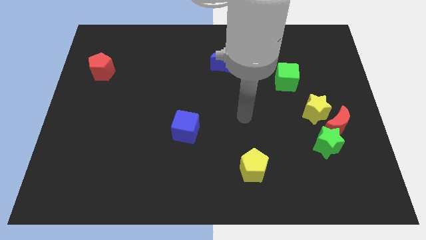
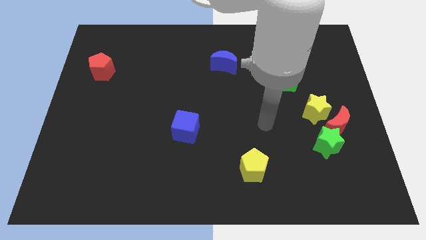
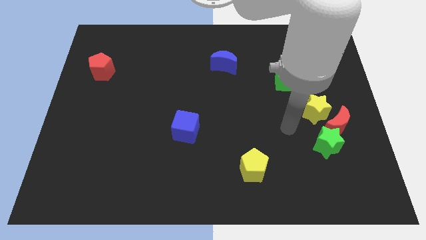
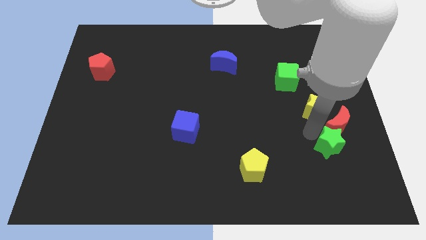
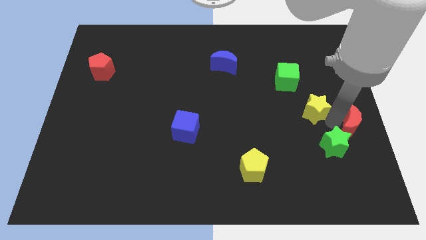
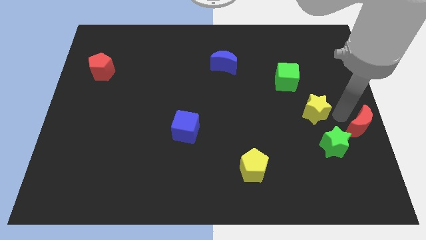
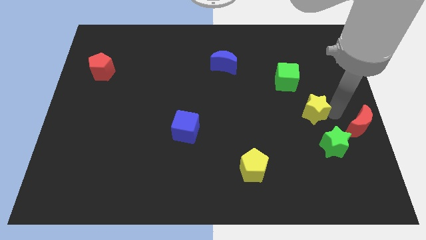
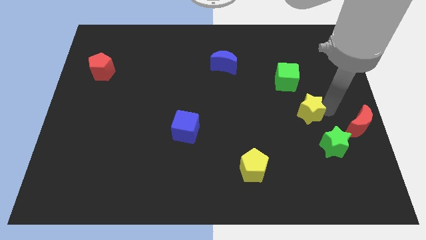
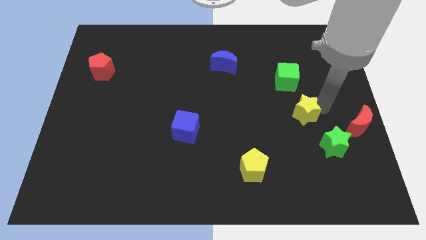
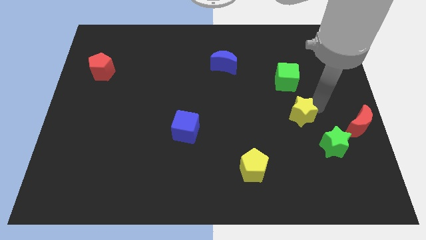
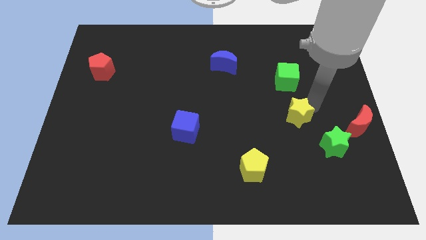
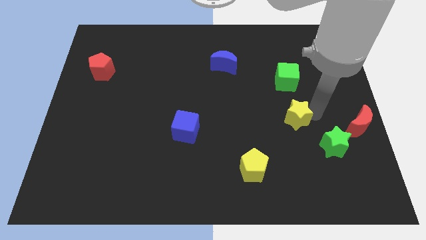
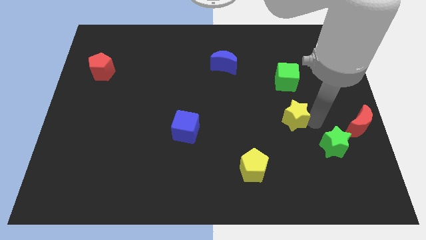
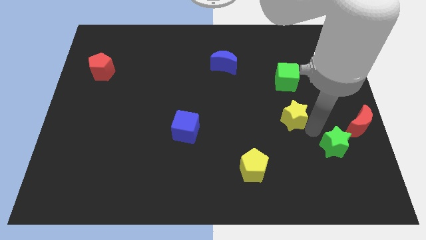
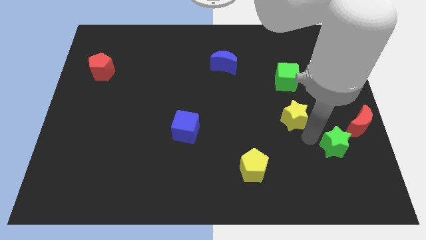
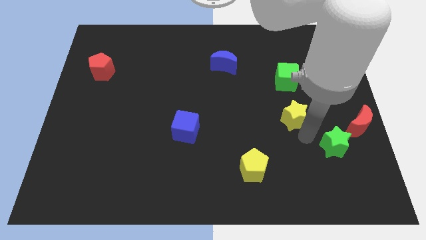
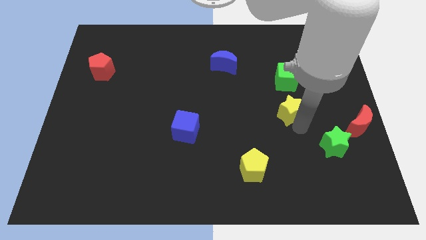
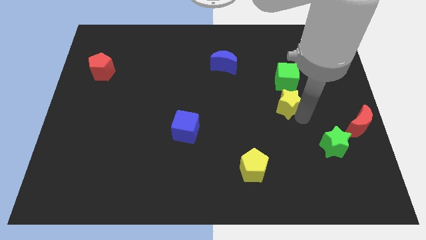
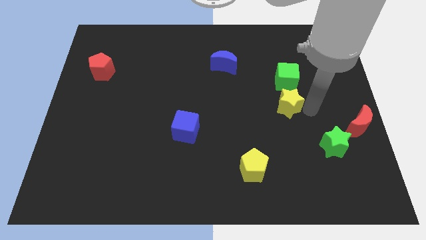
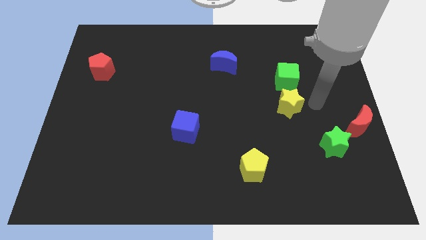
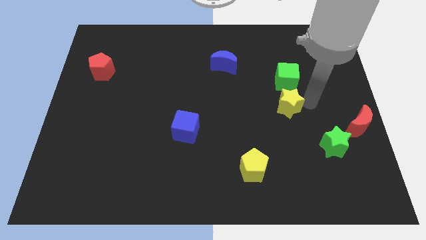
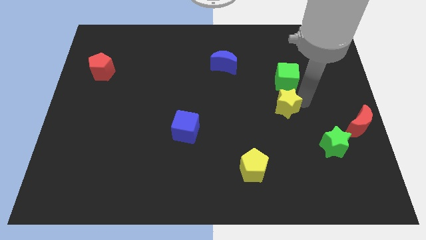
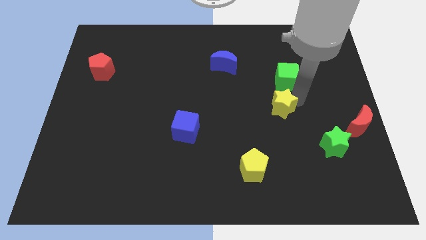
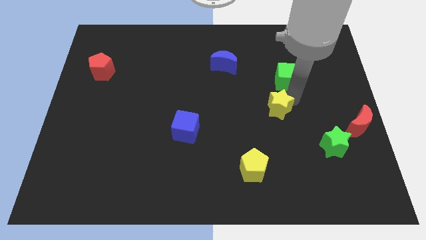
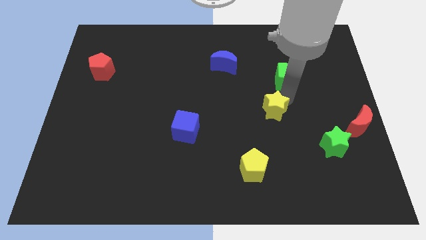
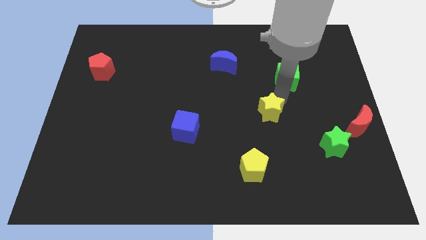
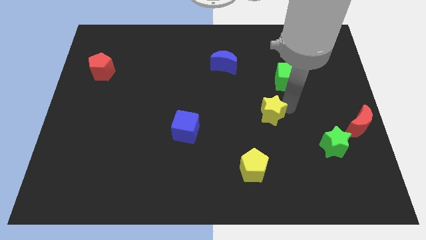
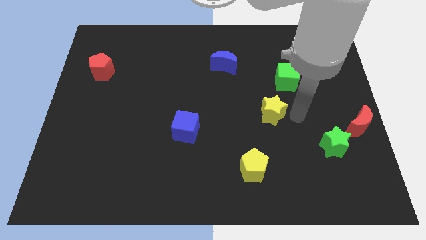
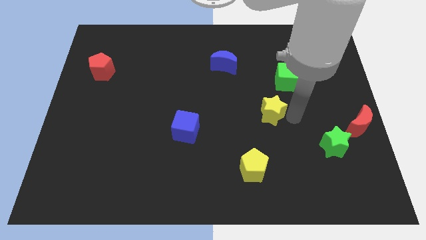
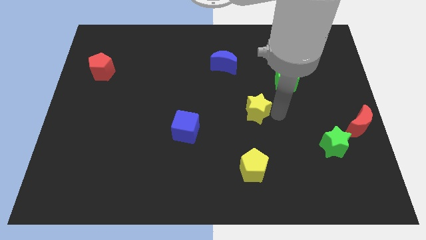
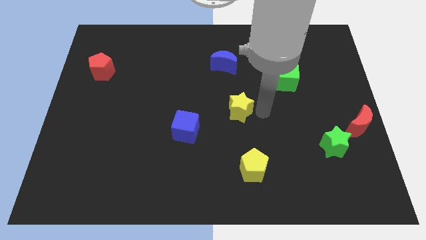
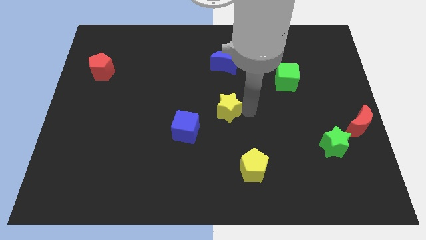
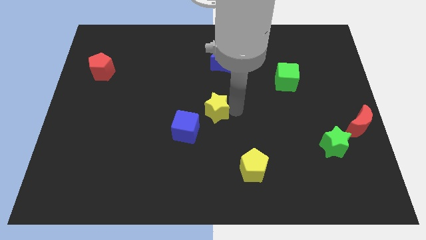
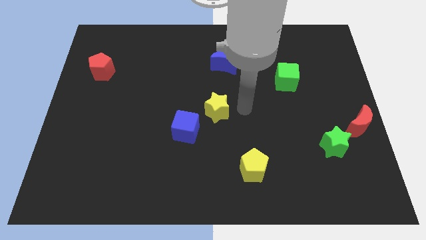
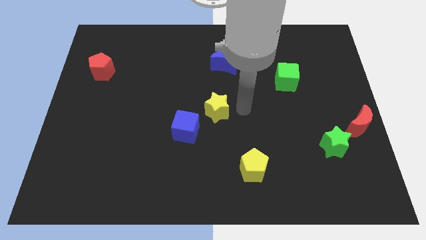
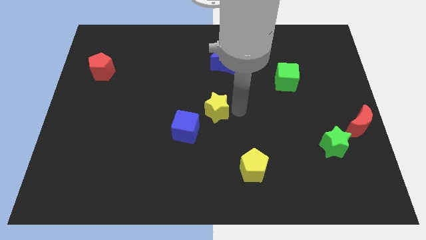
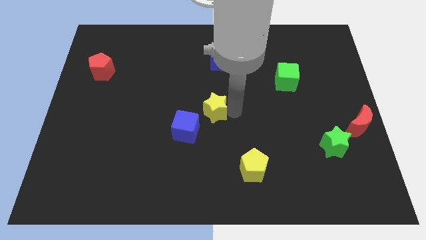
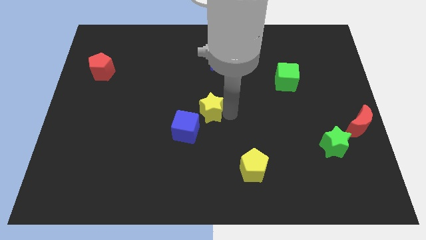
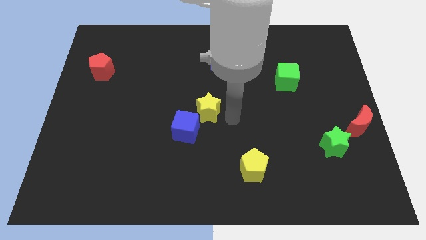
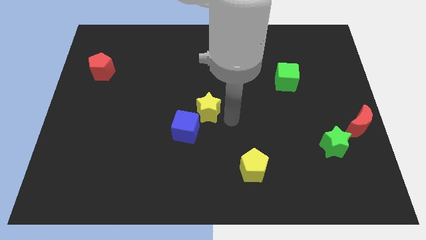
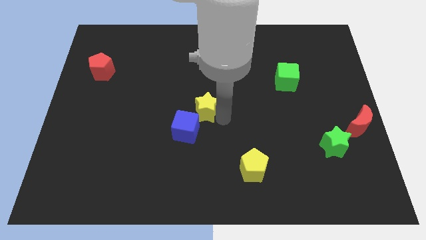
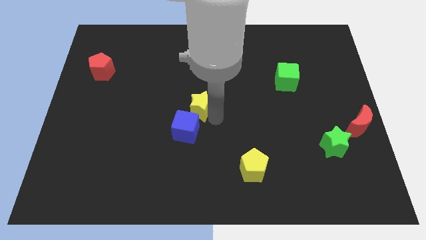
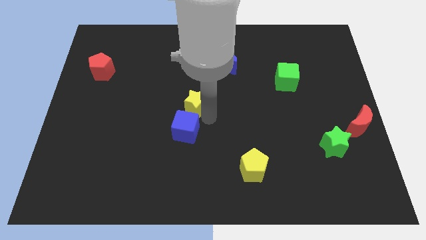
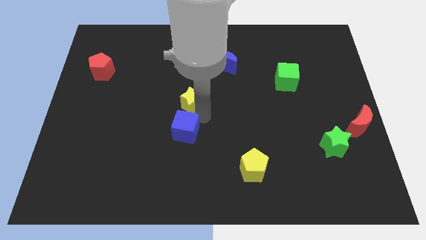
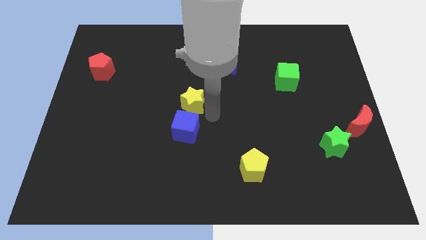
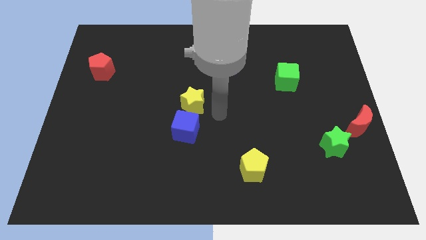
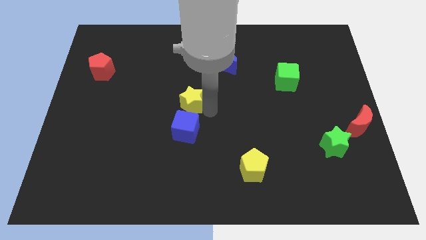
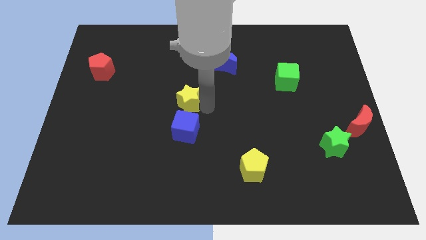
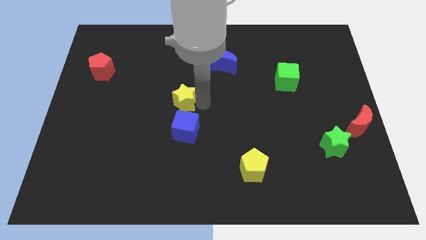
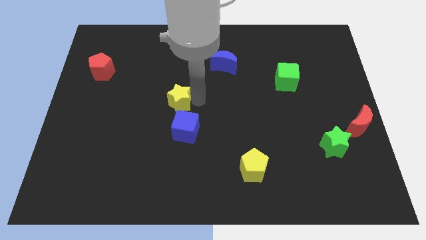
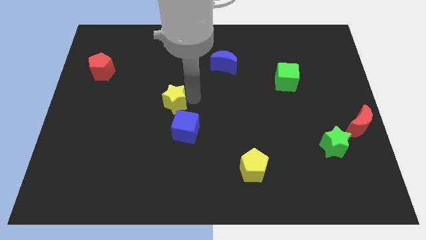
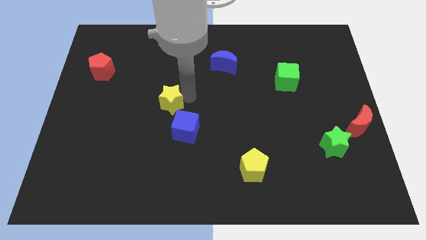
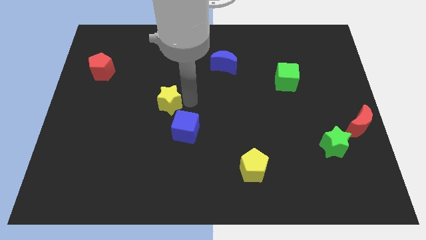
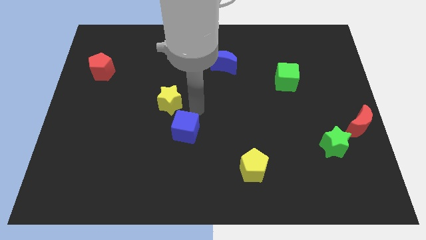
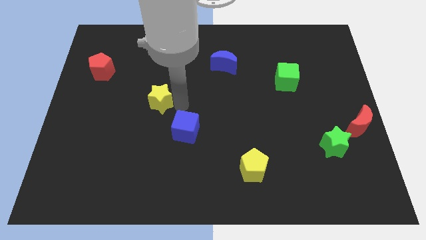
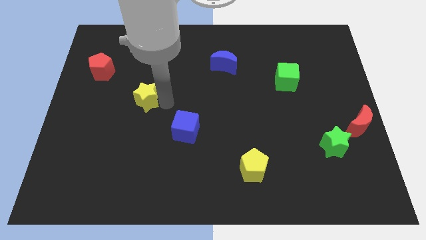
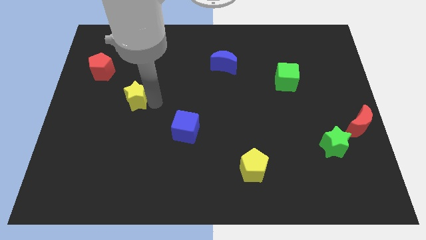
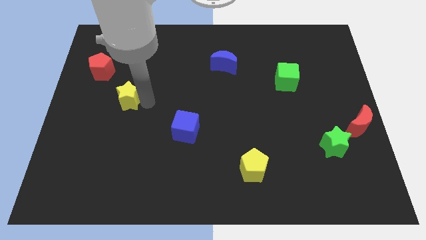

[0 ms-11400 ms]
push the yellow star diagonally down and to the right of the red pentagon
